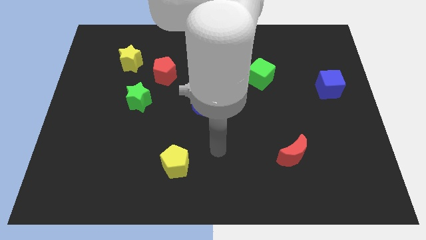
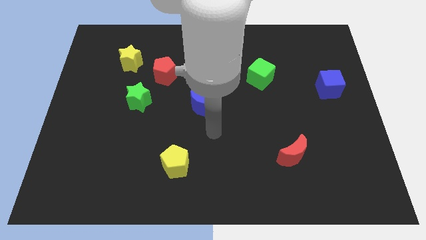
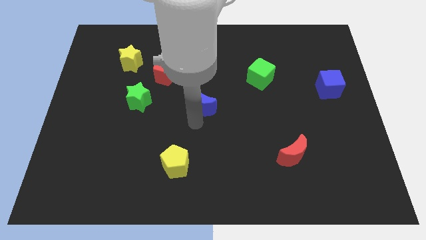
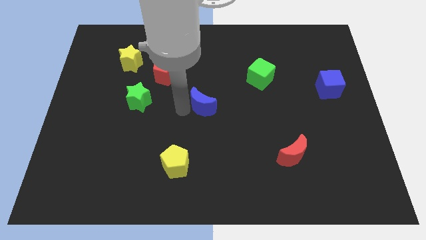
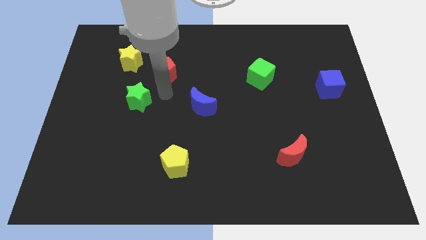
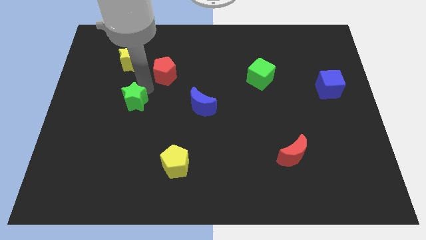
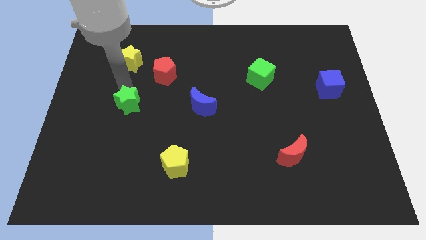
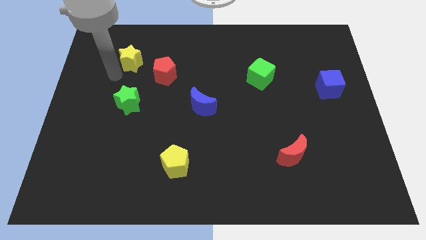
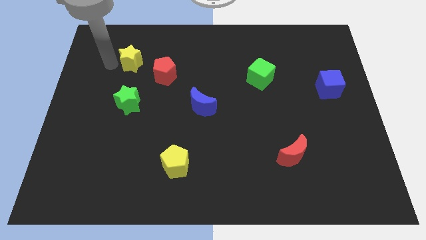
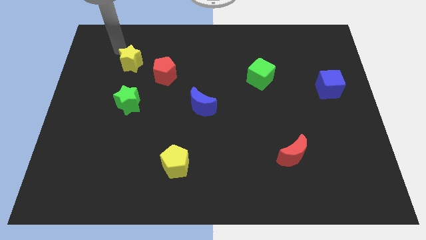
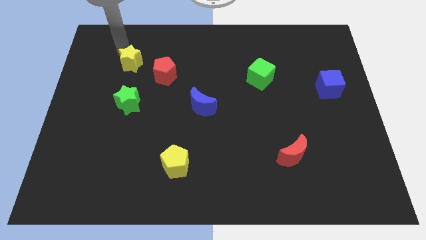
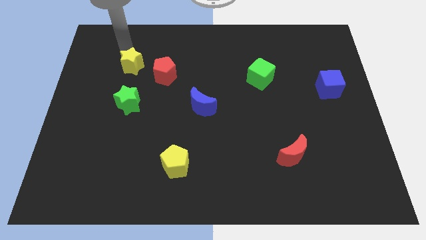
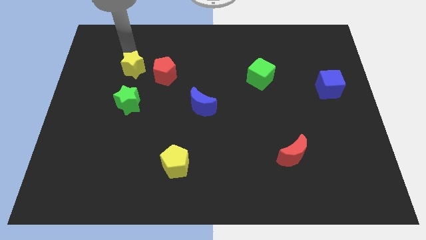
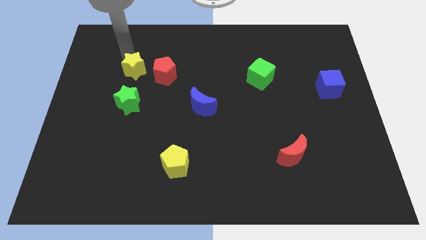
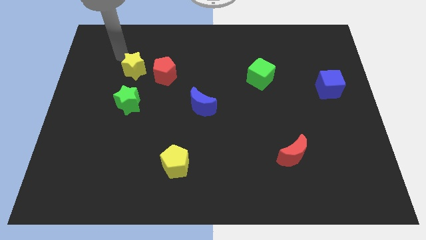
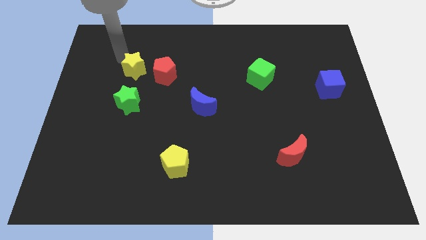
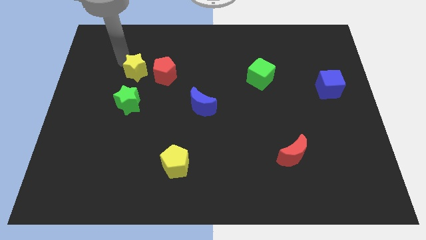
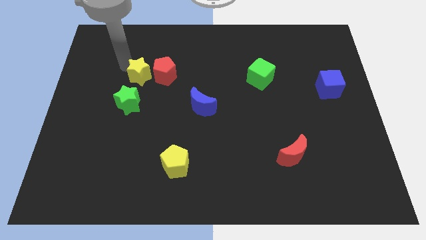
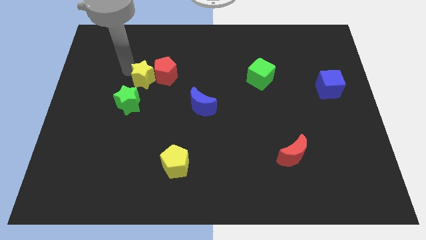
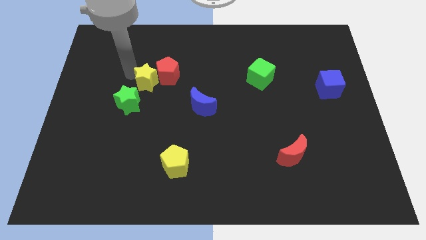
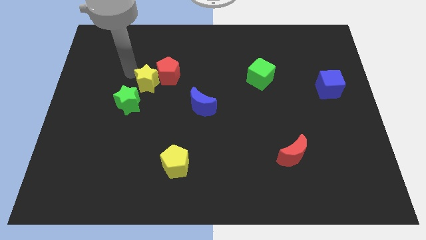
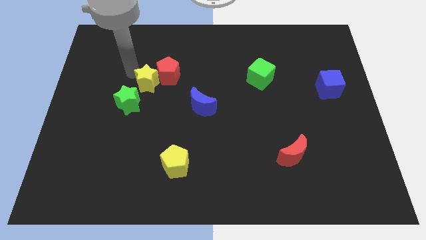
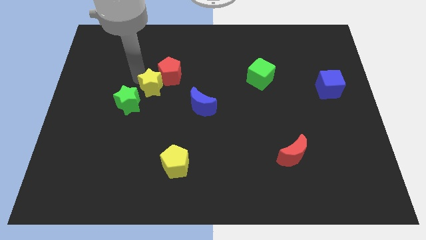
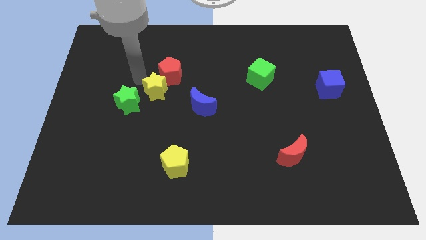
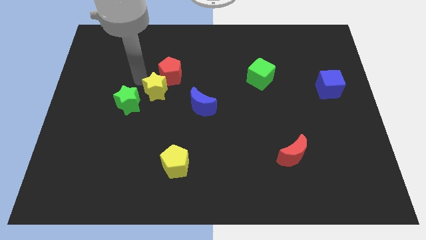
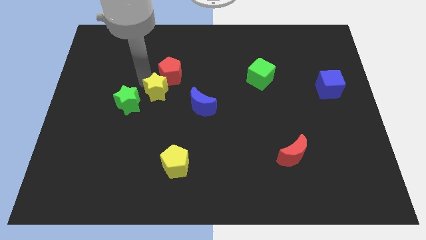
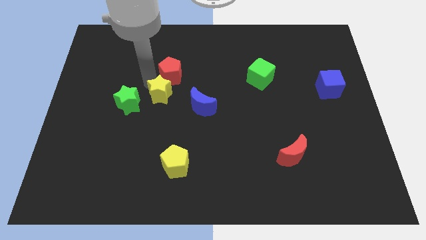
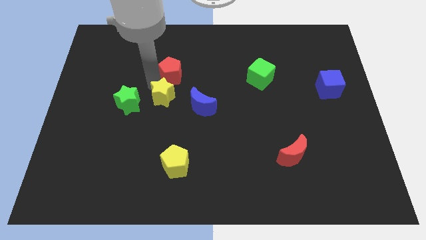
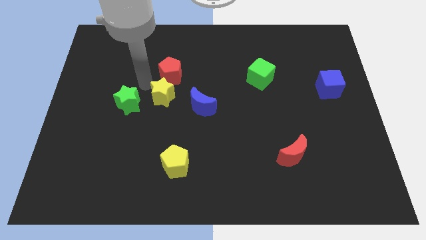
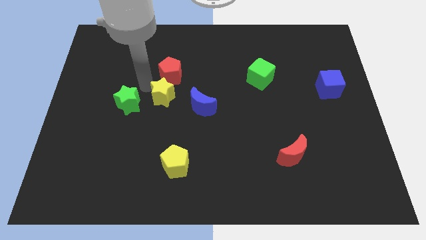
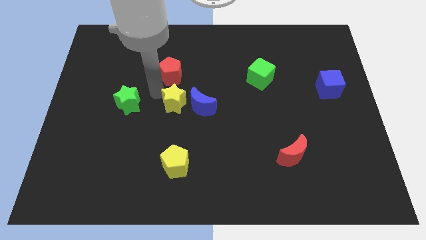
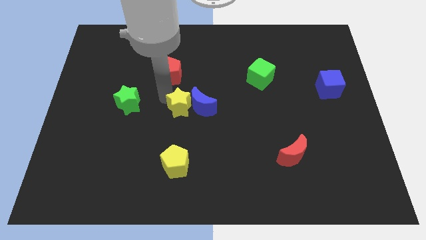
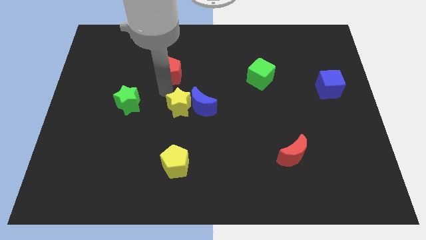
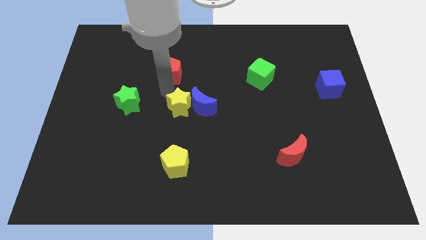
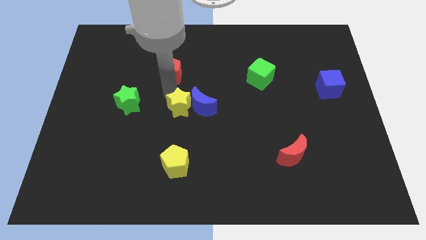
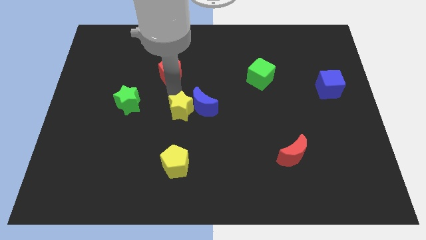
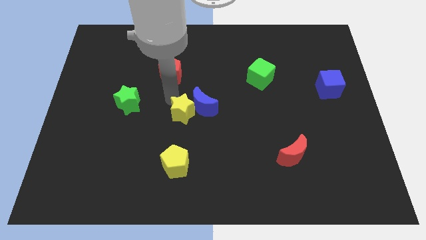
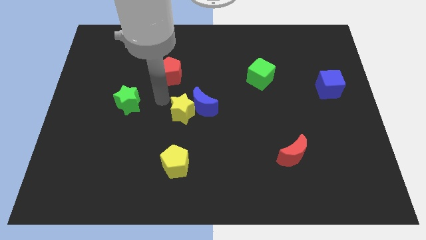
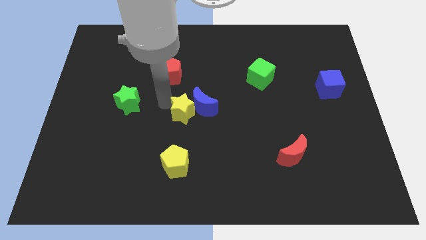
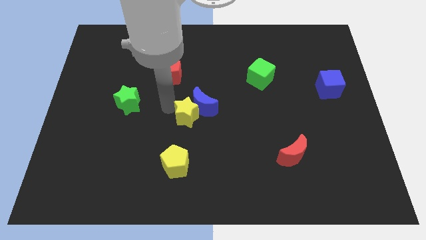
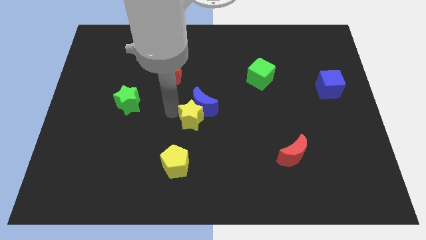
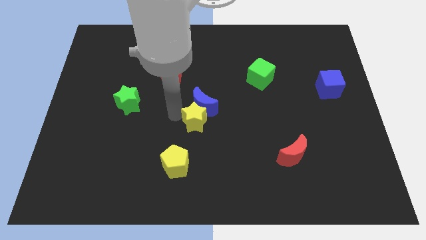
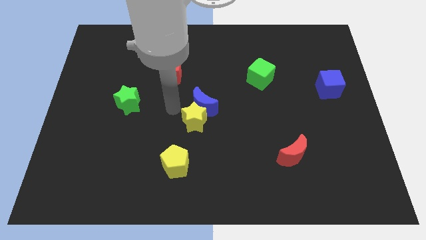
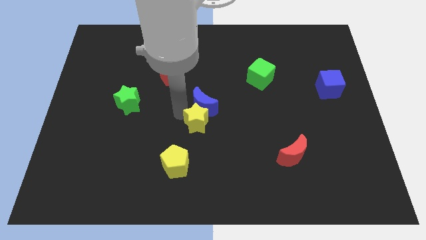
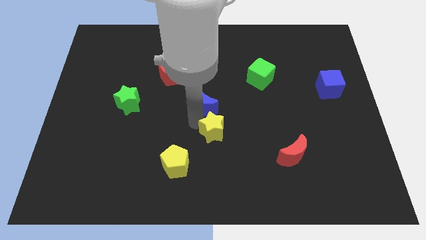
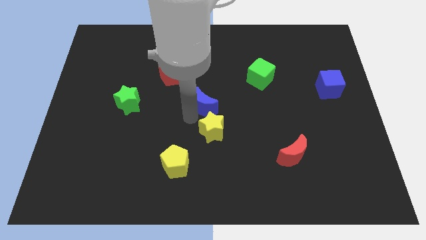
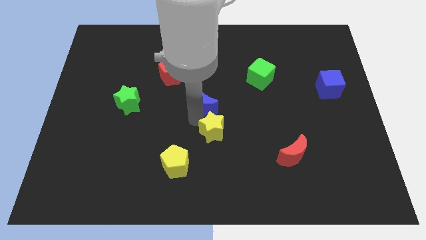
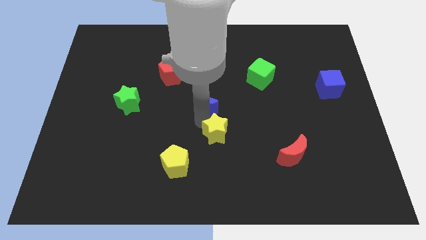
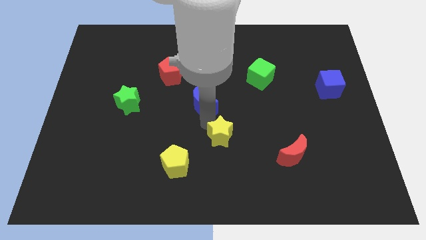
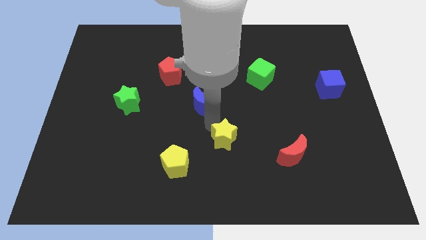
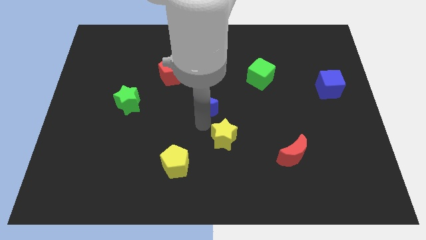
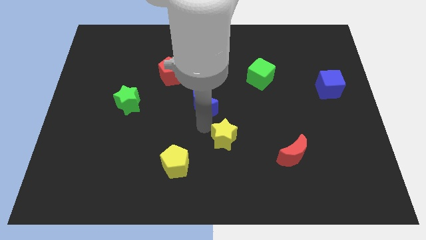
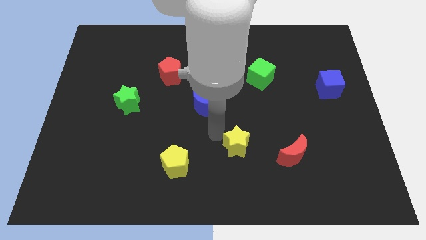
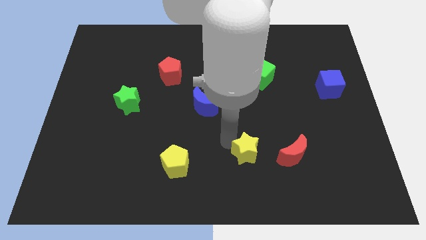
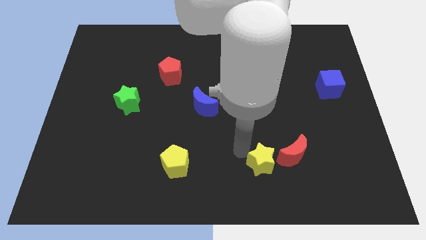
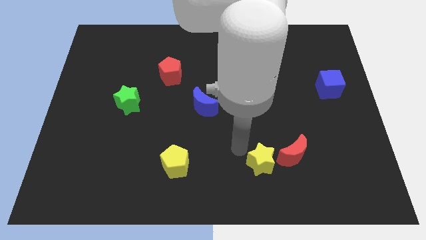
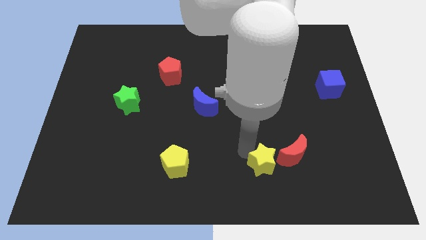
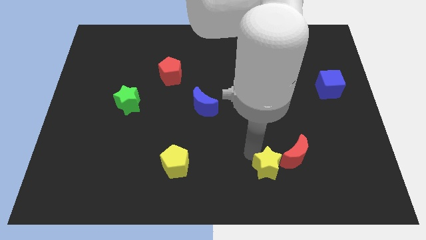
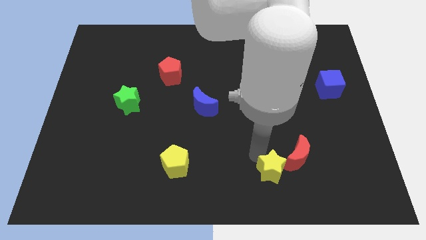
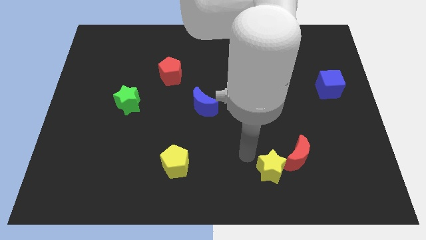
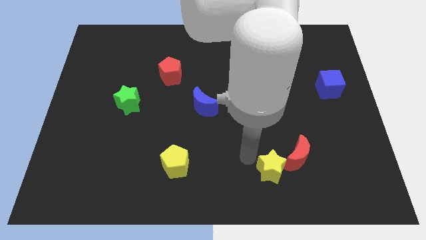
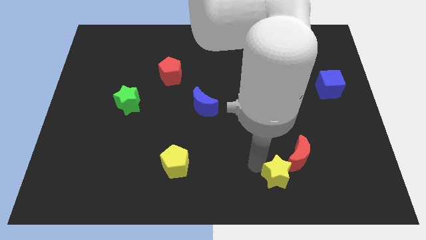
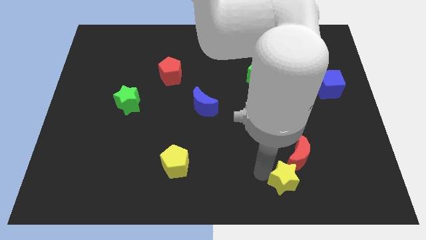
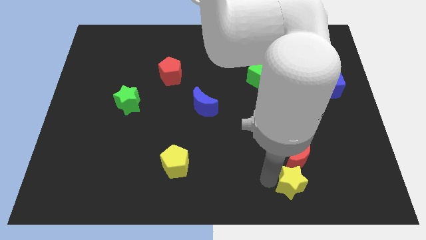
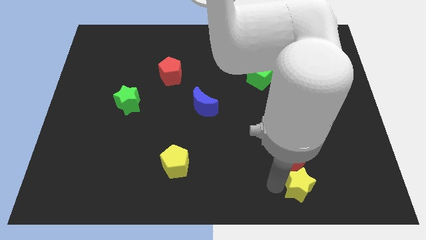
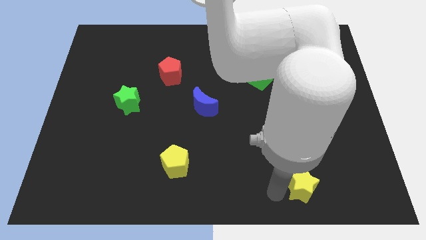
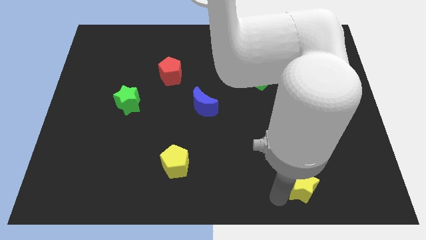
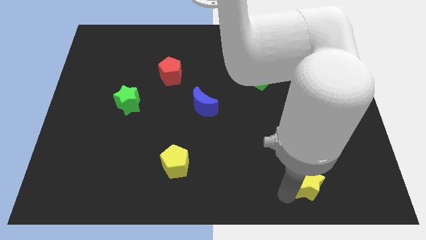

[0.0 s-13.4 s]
push the yellow star to the bottom right of the red moon

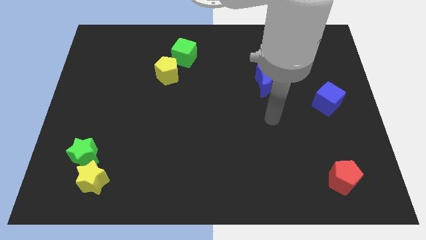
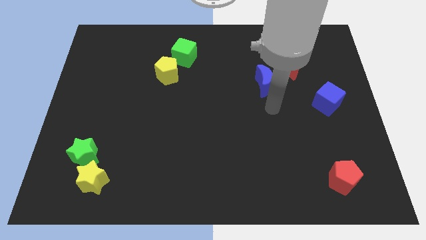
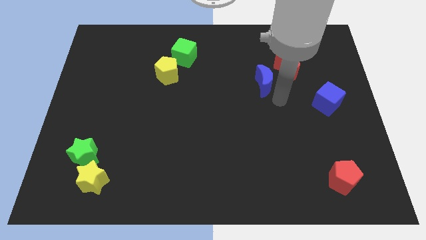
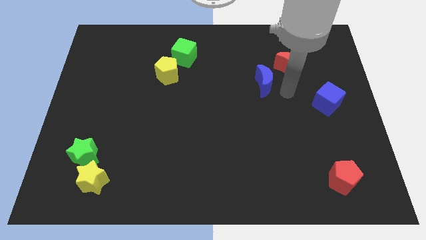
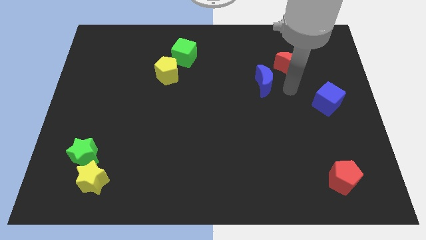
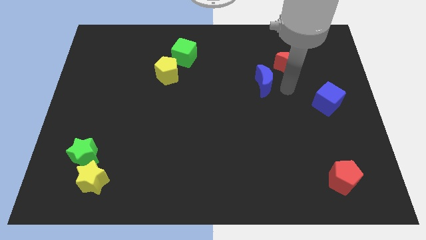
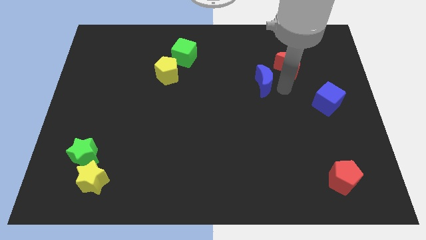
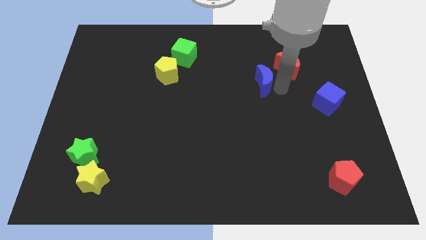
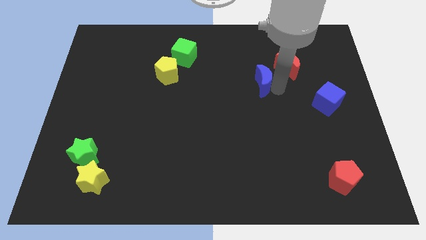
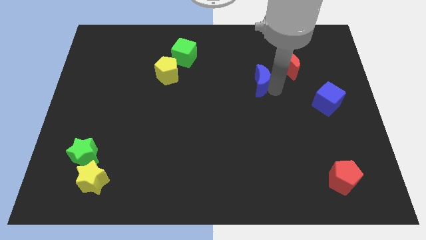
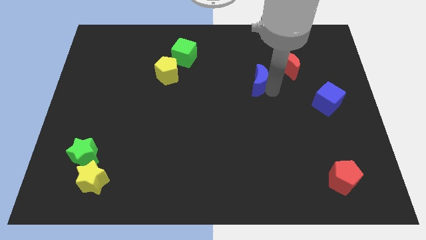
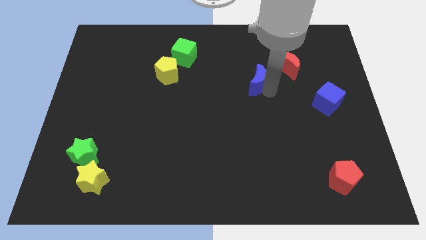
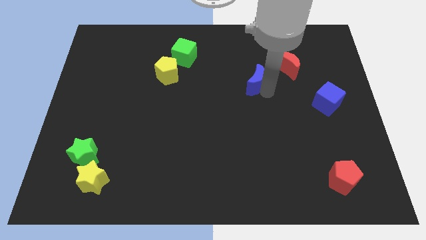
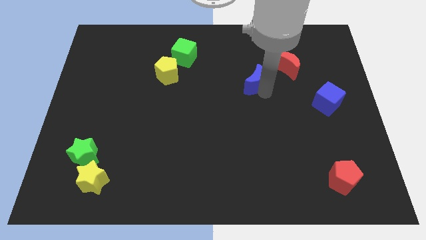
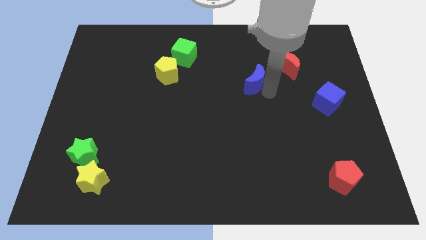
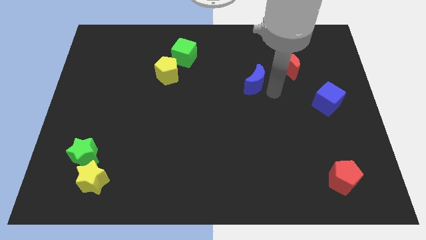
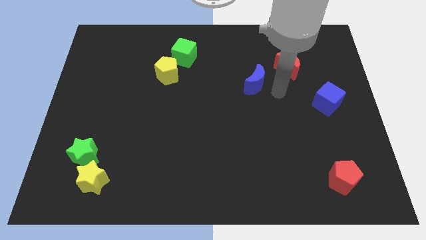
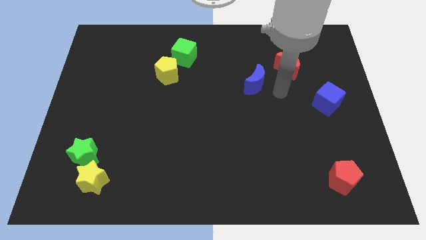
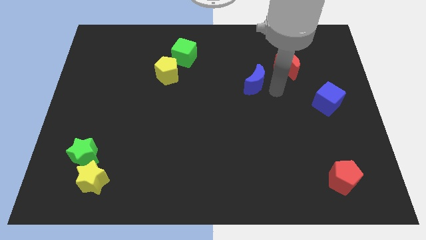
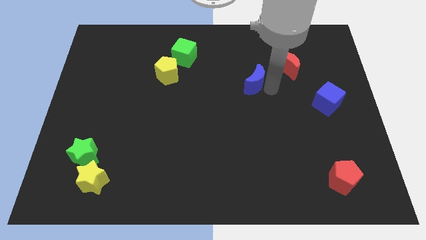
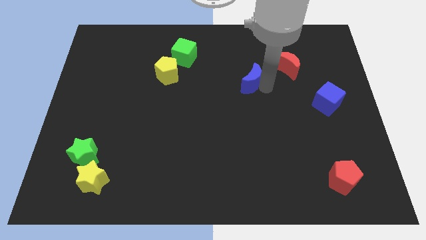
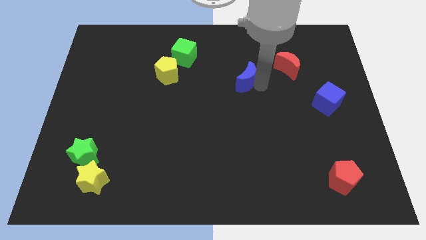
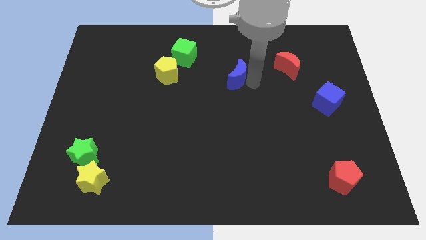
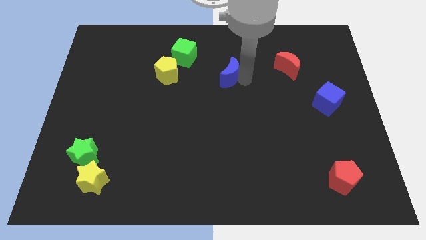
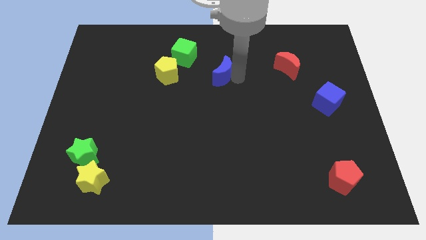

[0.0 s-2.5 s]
push the blue moon to the bottom right of the green cube
